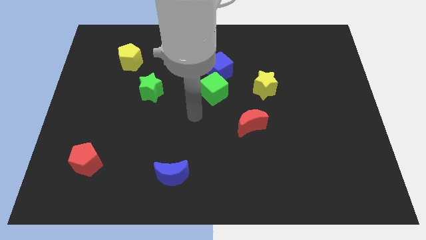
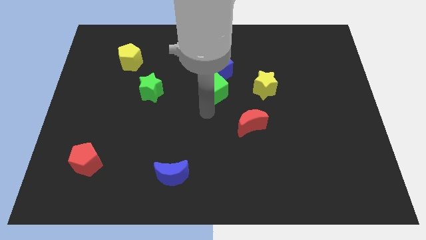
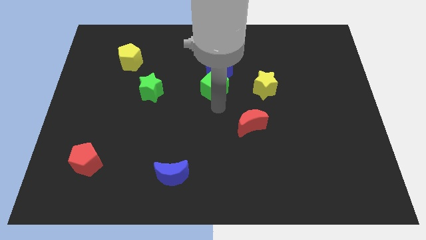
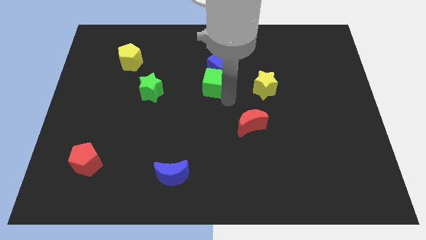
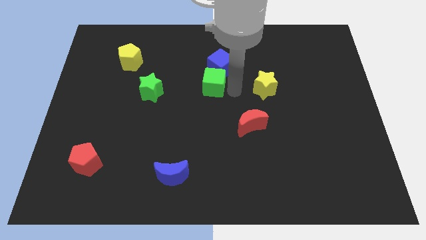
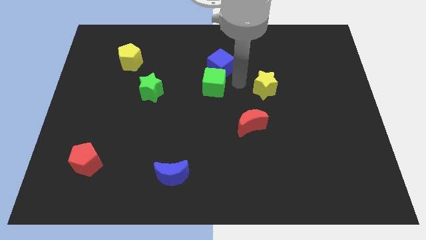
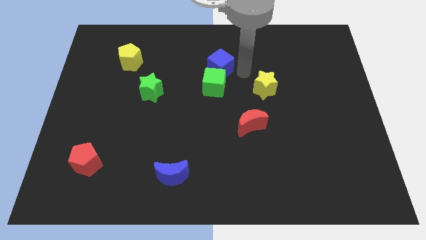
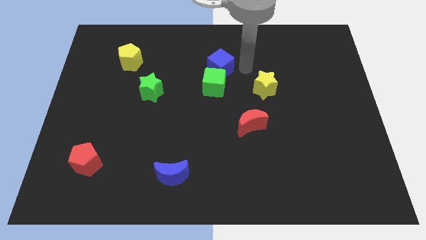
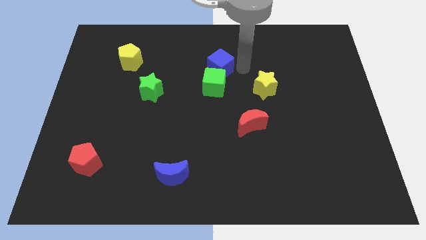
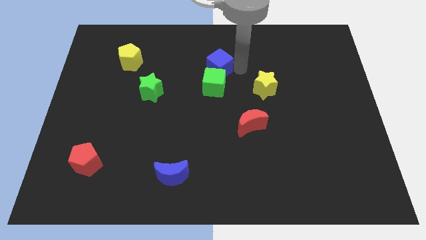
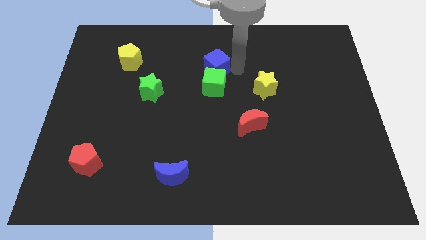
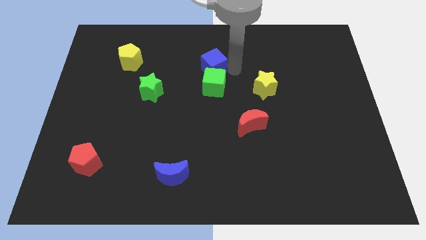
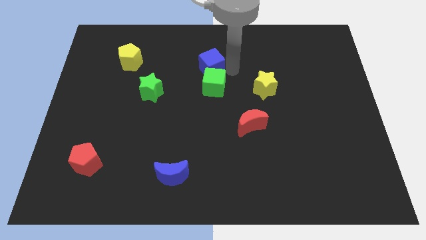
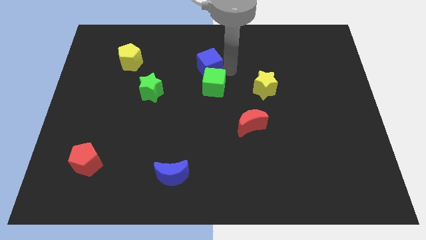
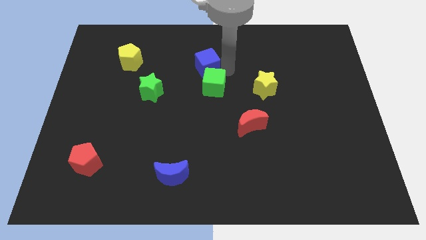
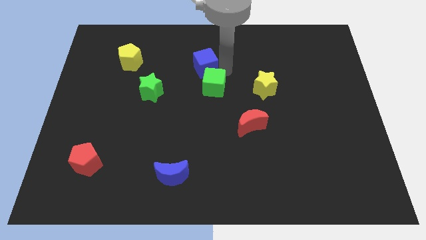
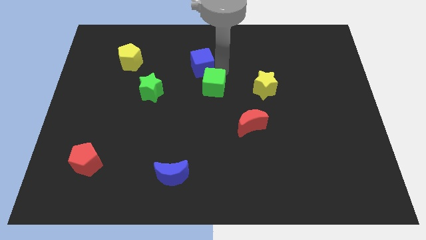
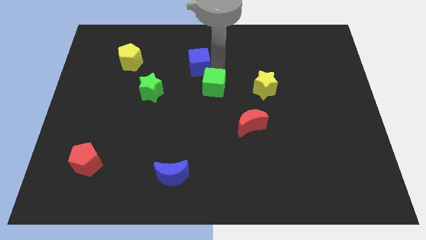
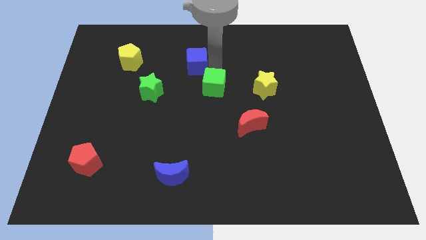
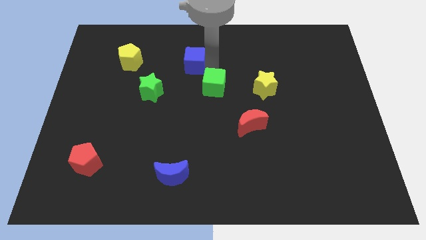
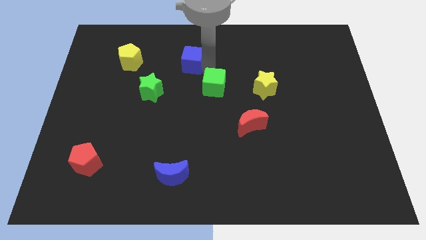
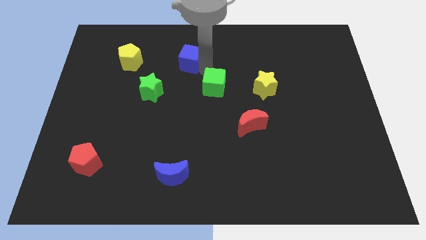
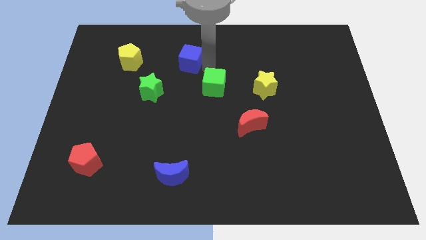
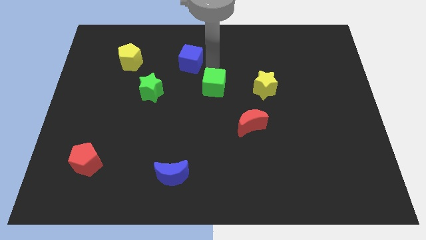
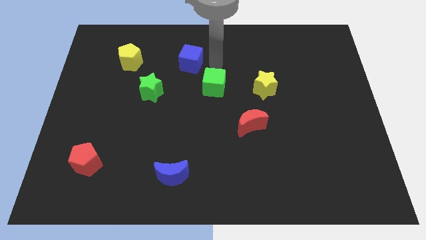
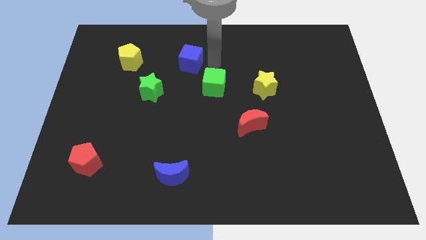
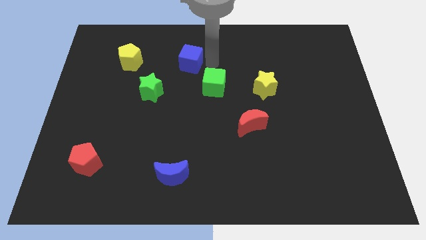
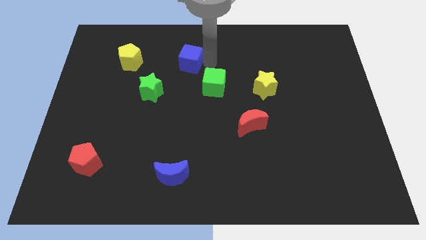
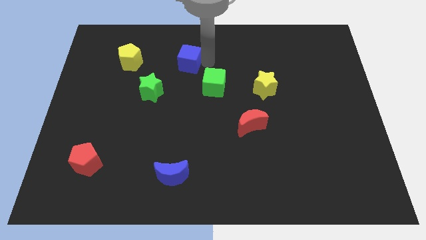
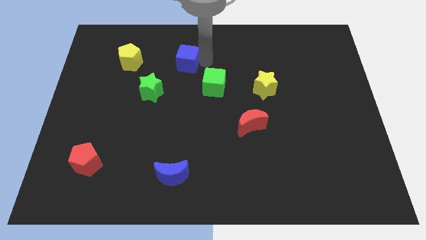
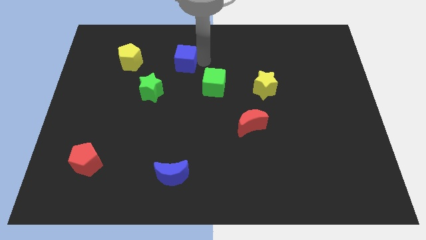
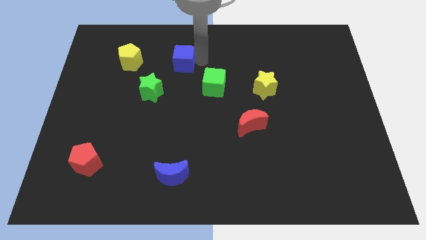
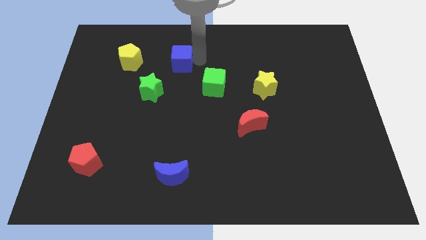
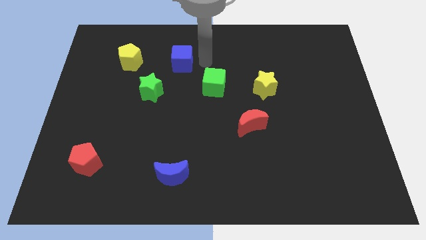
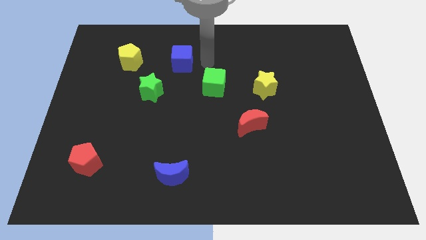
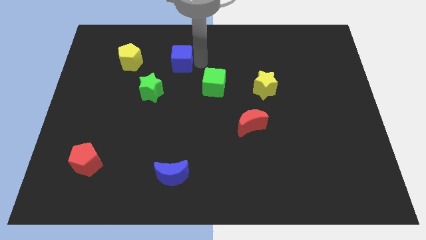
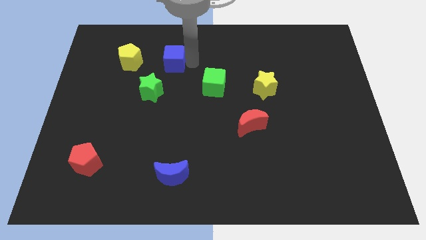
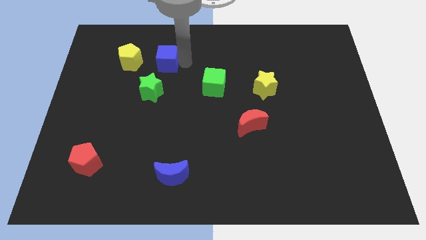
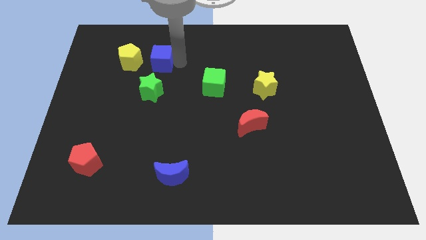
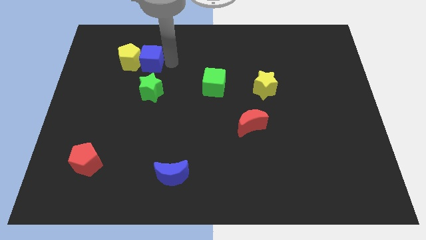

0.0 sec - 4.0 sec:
put the blue cube close to the yellow pentagon

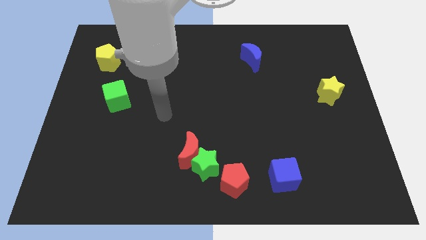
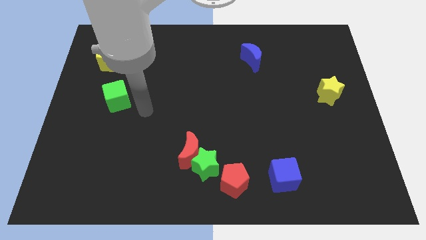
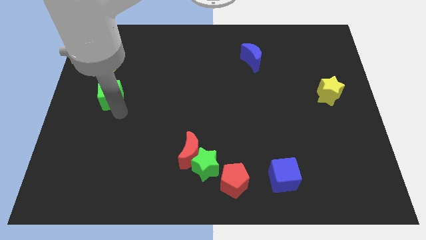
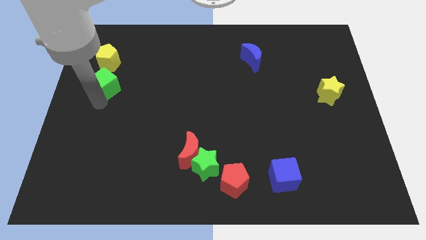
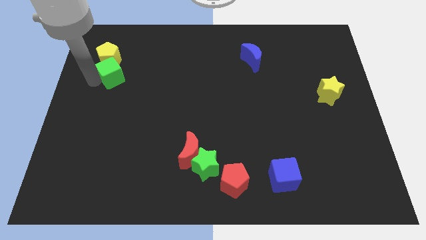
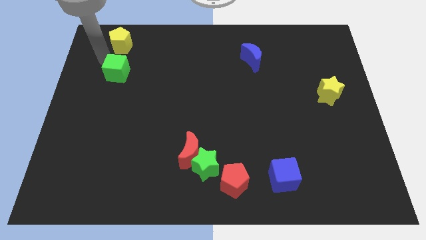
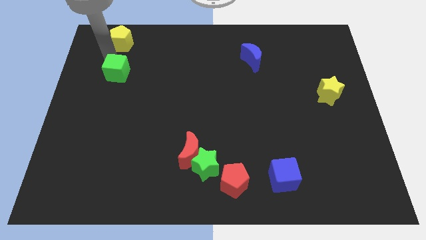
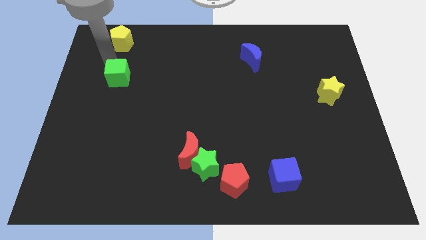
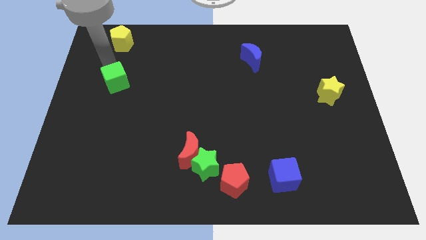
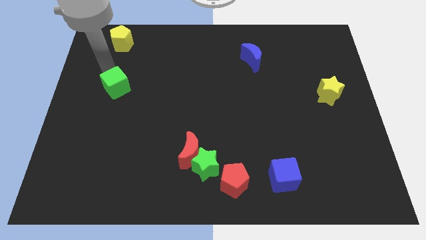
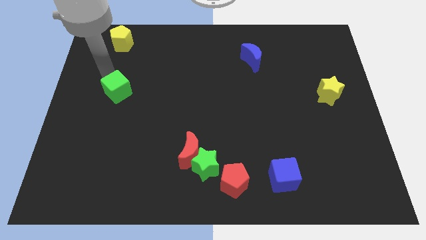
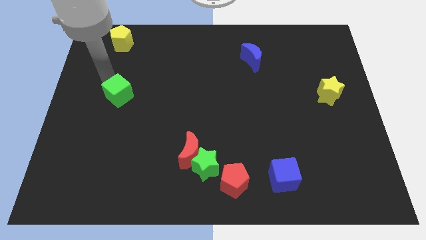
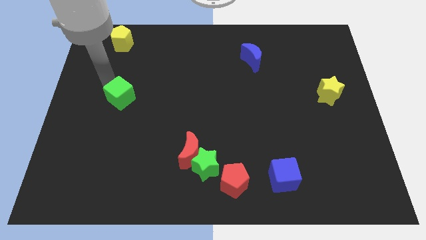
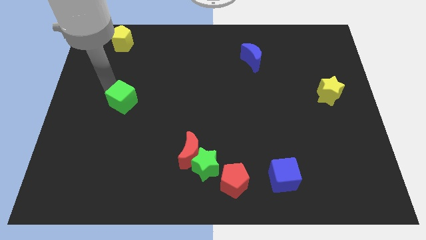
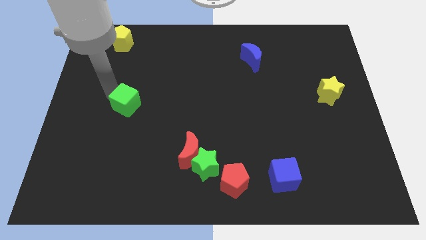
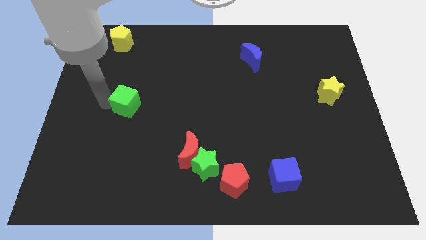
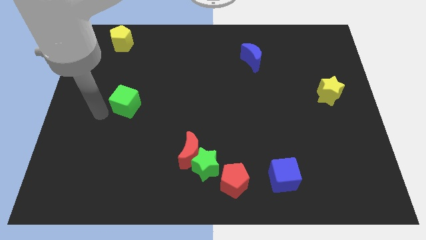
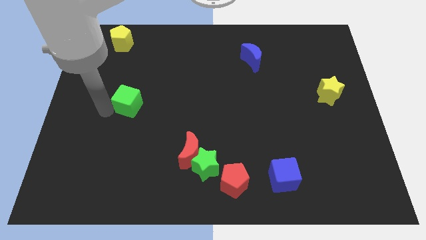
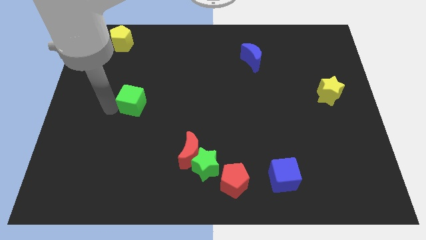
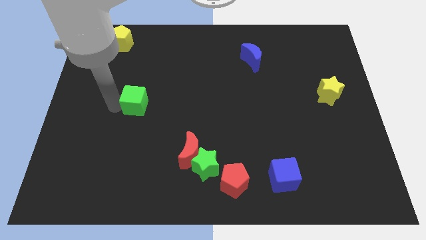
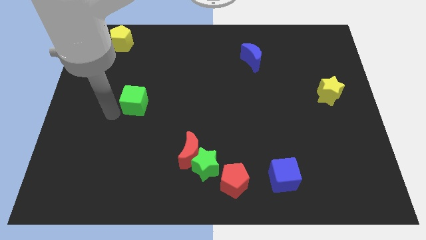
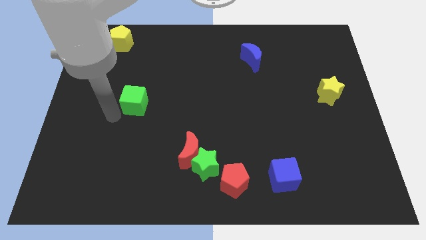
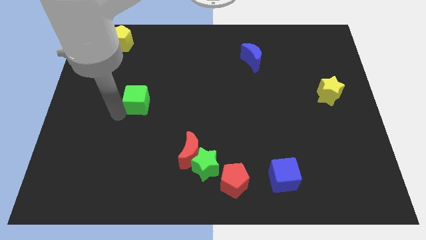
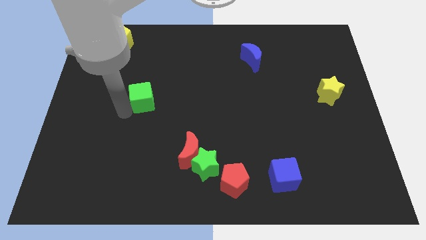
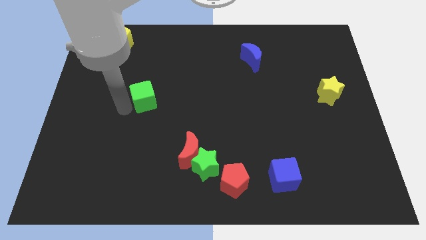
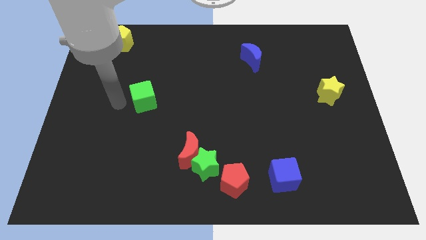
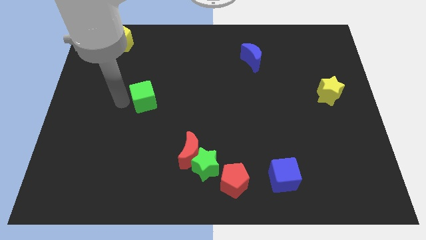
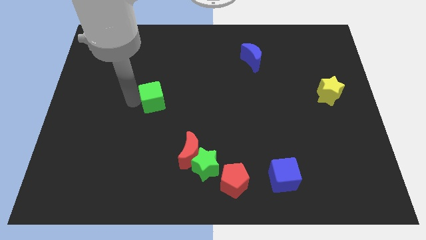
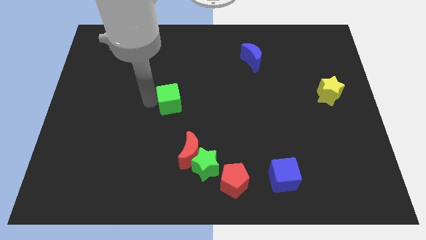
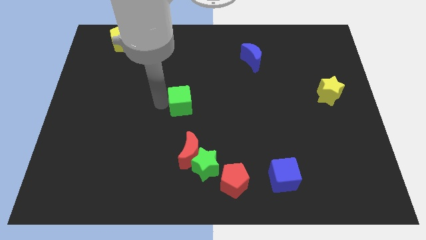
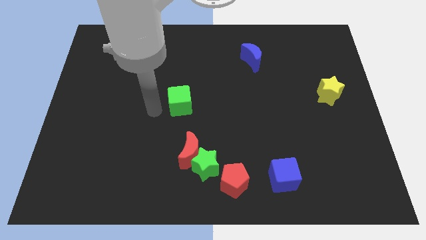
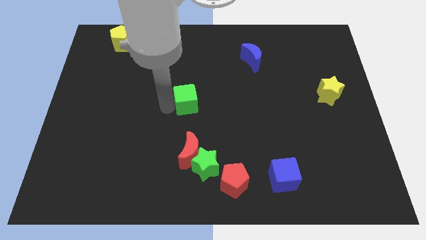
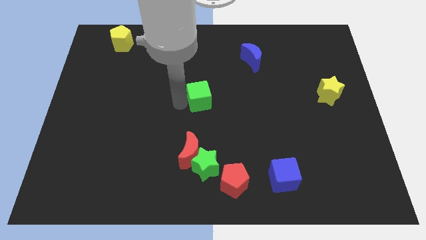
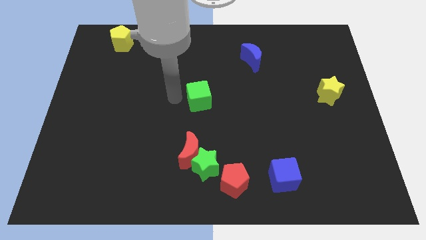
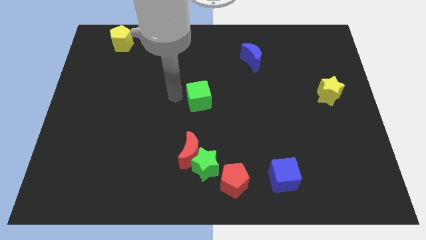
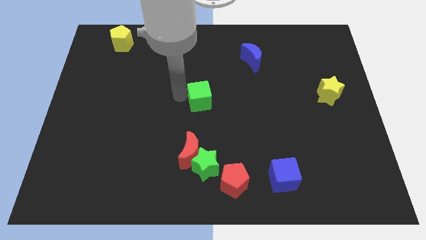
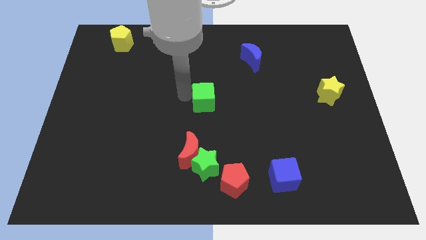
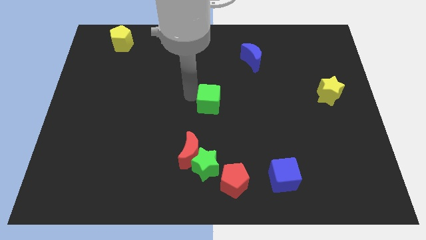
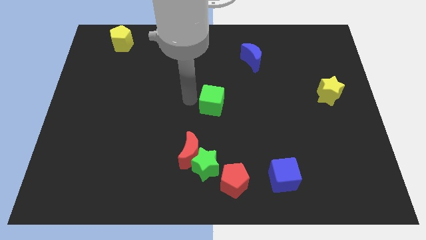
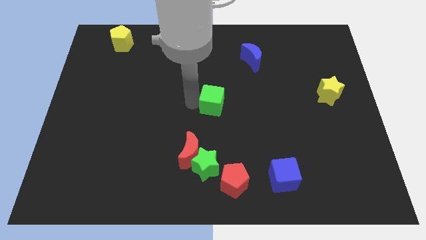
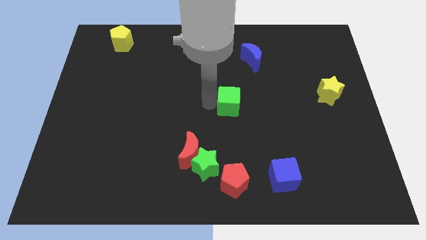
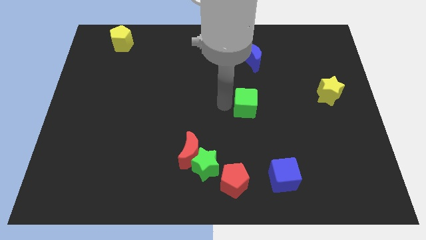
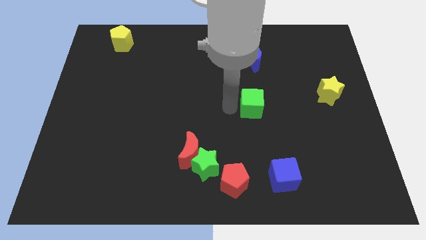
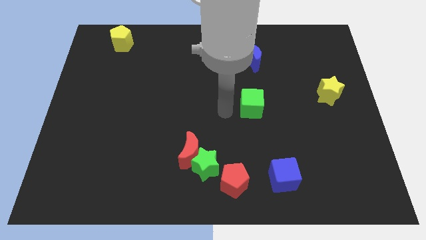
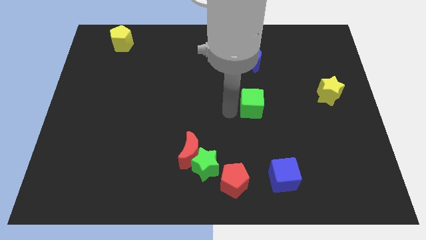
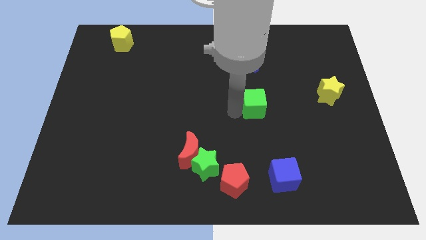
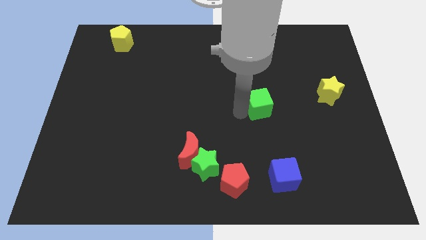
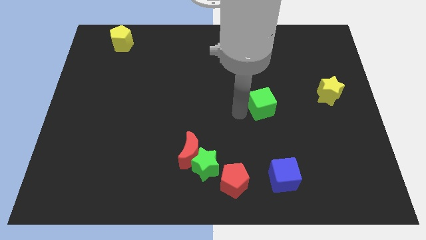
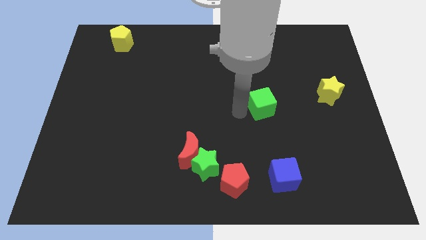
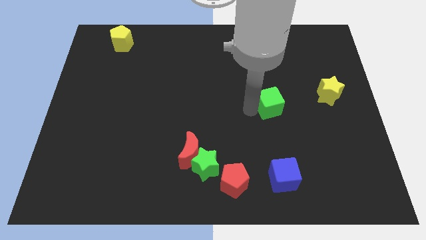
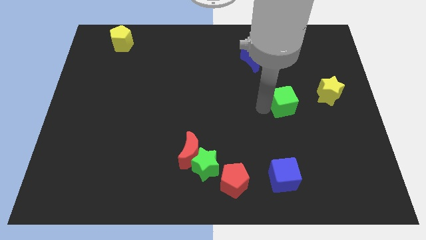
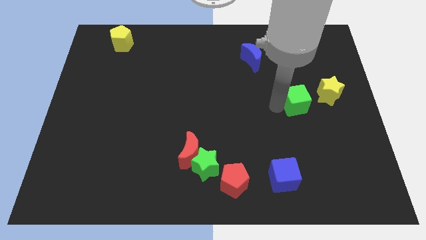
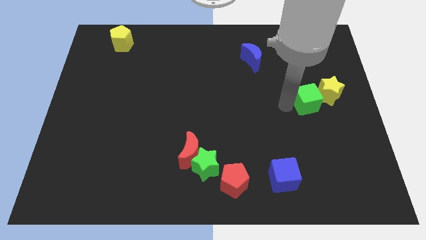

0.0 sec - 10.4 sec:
slide the green cube close to the yellow star
